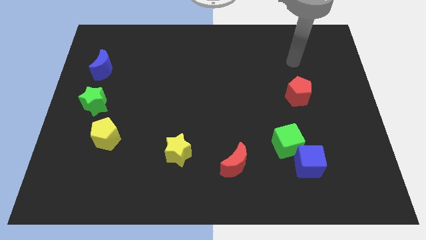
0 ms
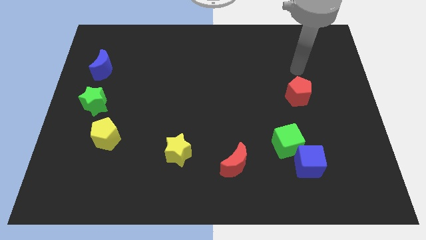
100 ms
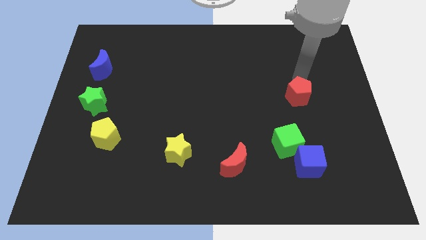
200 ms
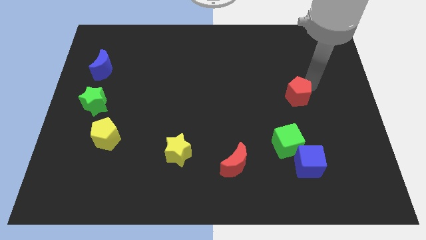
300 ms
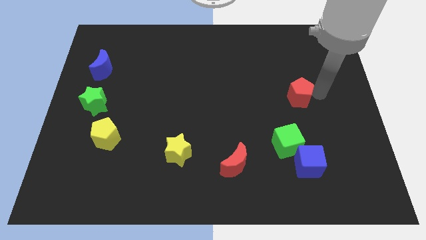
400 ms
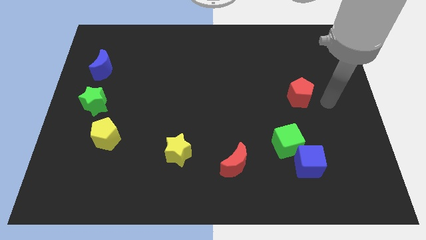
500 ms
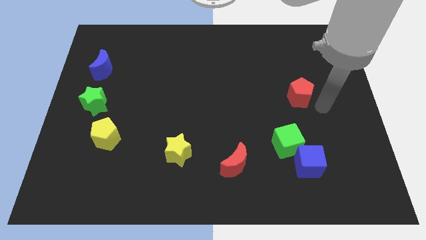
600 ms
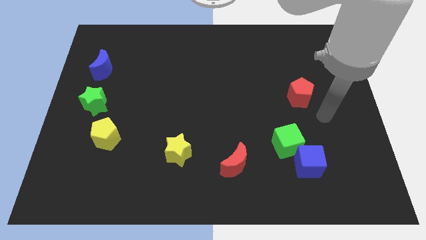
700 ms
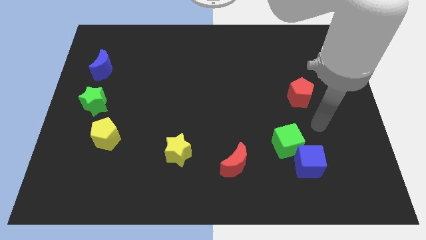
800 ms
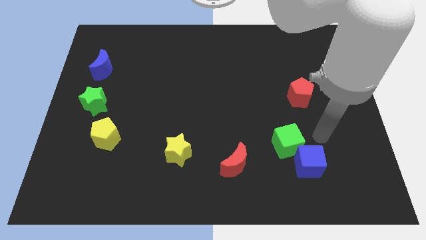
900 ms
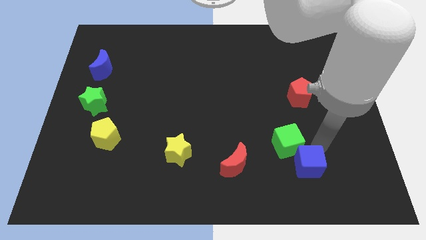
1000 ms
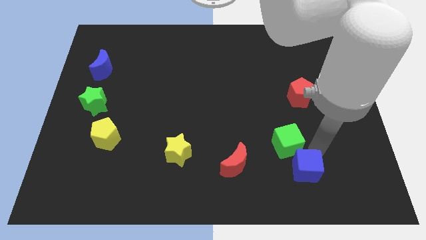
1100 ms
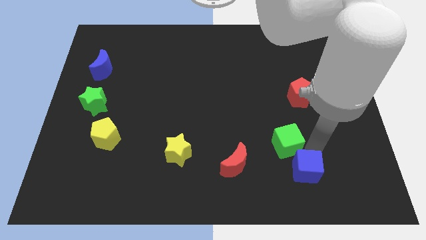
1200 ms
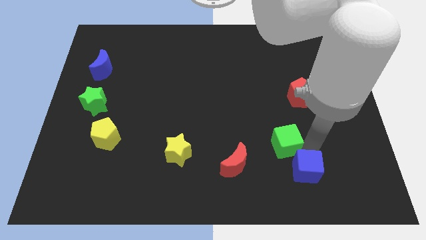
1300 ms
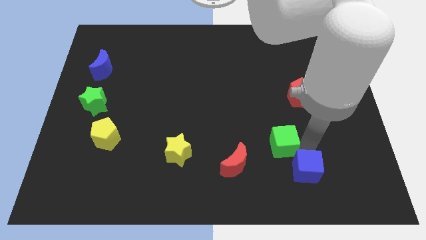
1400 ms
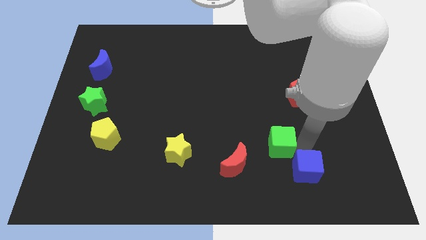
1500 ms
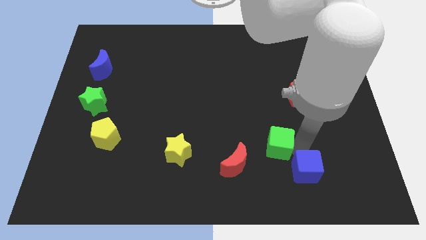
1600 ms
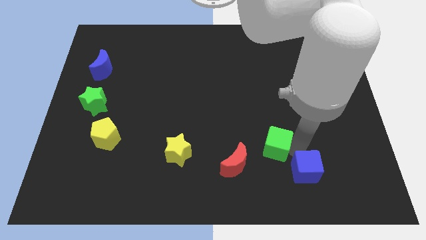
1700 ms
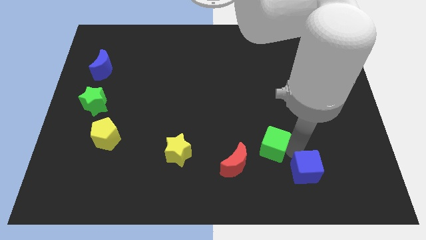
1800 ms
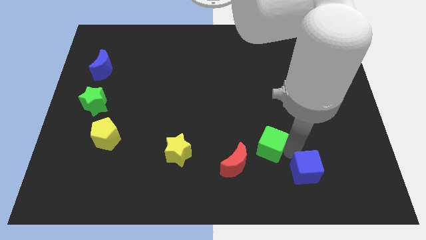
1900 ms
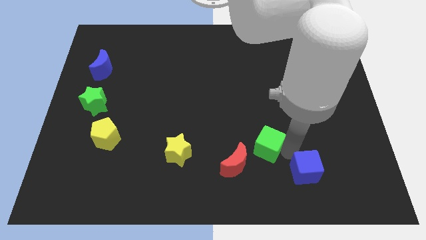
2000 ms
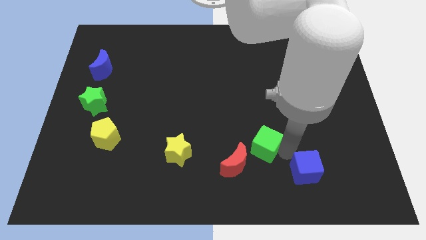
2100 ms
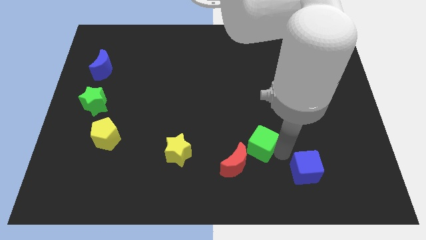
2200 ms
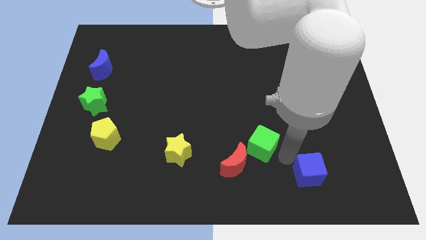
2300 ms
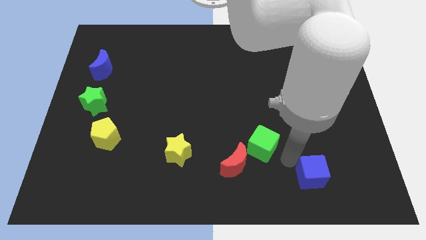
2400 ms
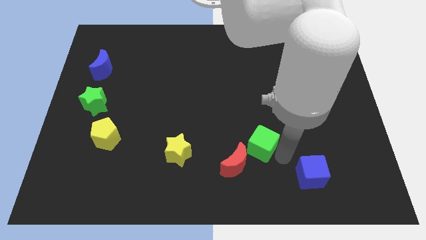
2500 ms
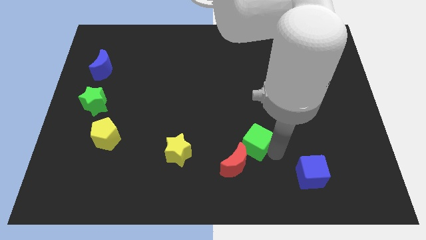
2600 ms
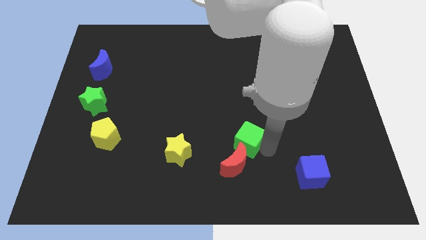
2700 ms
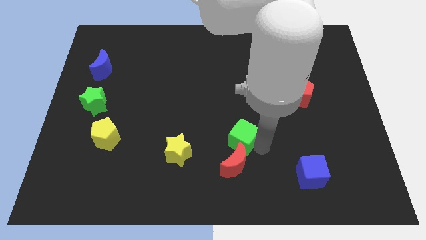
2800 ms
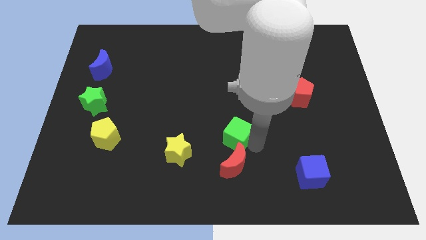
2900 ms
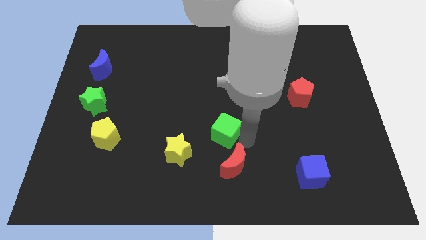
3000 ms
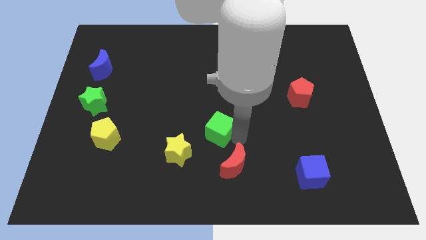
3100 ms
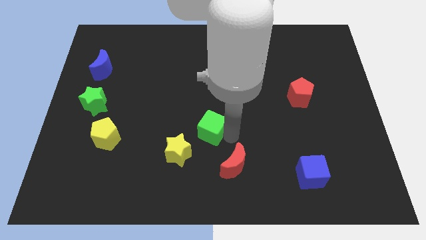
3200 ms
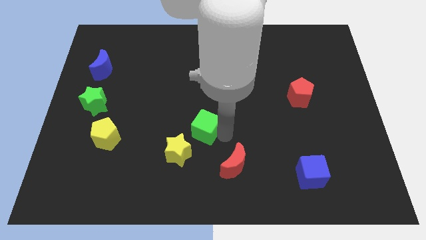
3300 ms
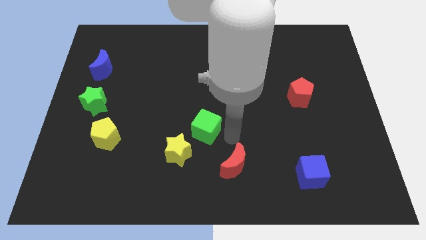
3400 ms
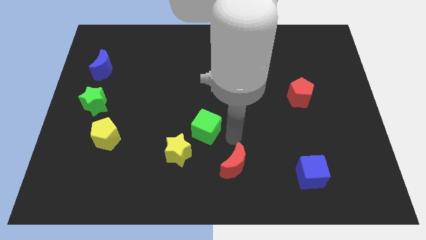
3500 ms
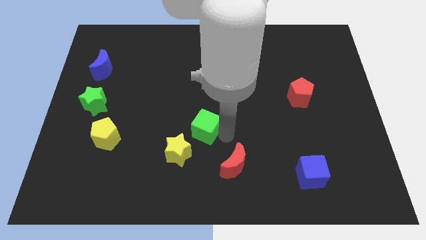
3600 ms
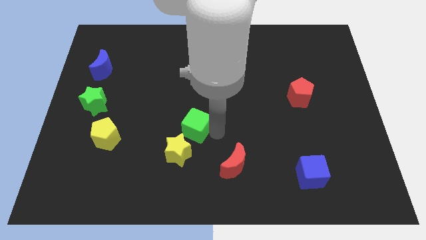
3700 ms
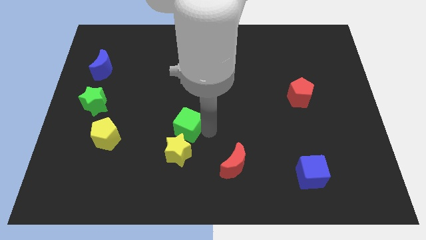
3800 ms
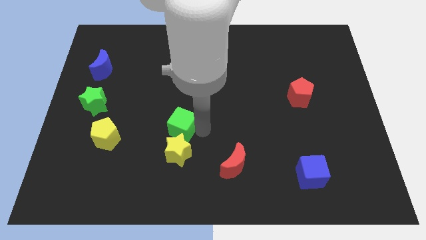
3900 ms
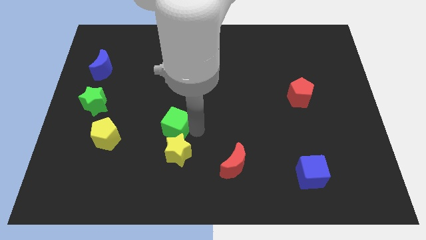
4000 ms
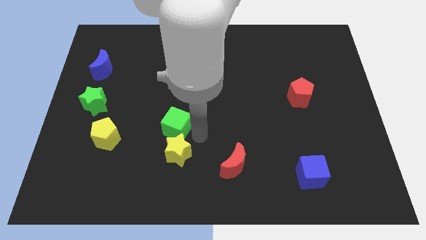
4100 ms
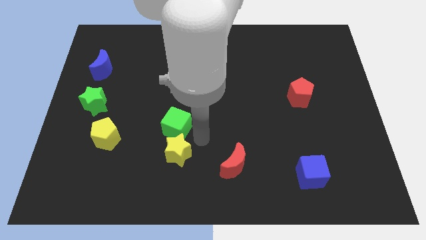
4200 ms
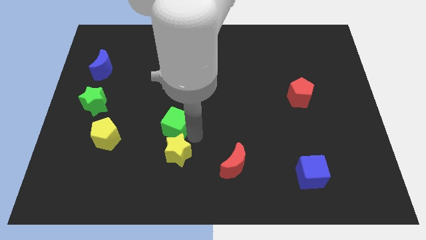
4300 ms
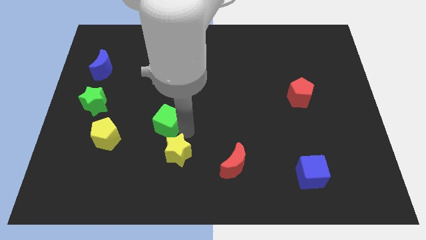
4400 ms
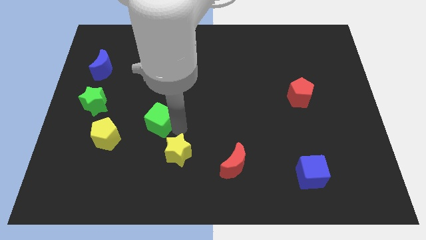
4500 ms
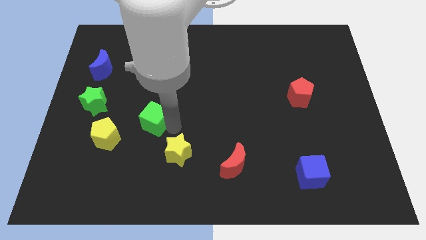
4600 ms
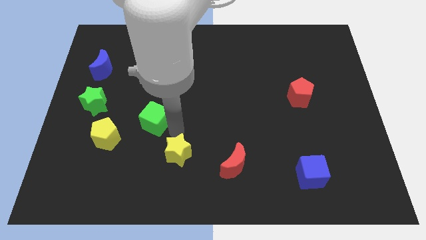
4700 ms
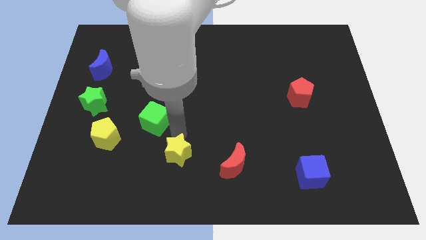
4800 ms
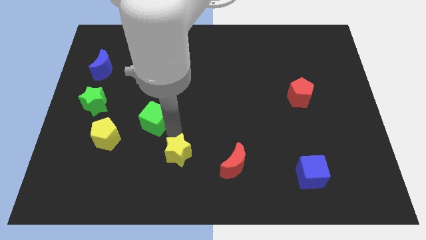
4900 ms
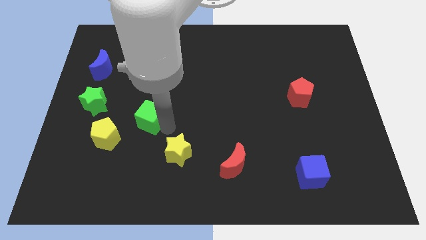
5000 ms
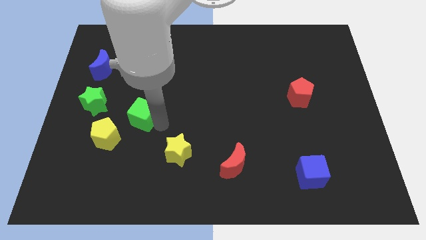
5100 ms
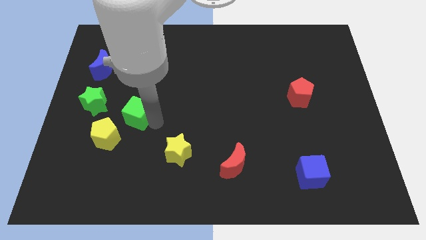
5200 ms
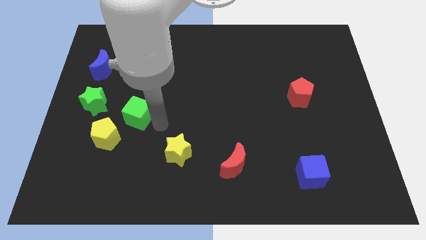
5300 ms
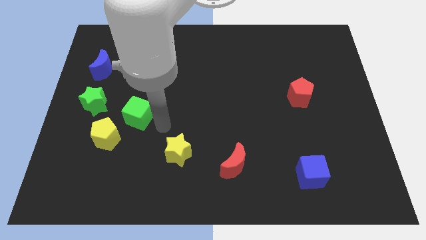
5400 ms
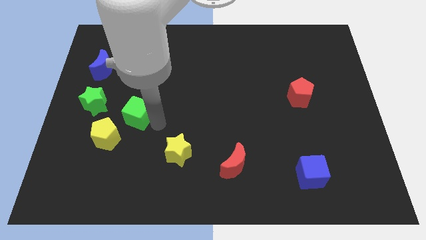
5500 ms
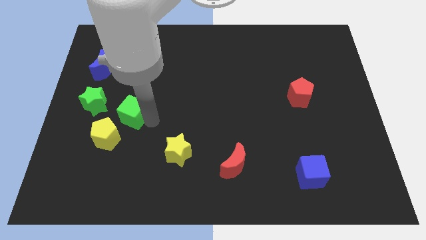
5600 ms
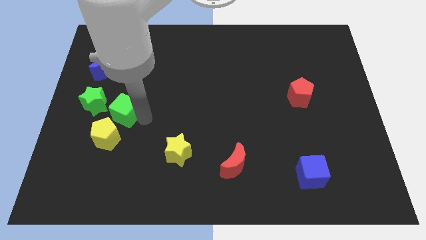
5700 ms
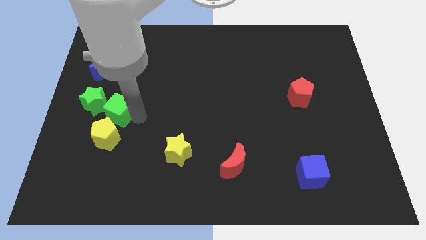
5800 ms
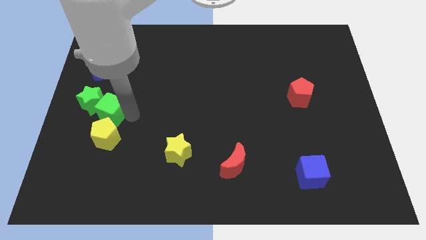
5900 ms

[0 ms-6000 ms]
slide the green cube next to the green star
